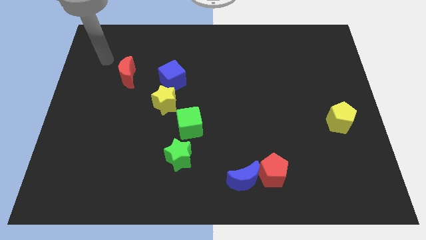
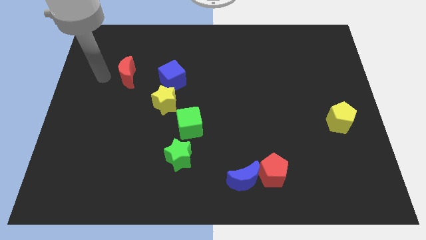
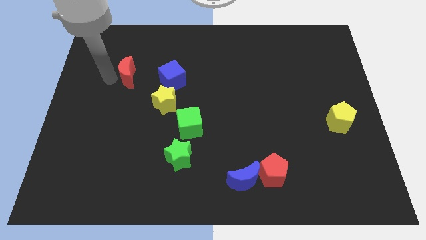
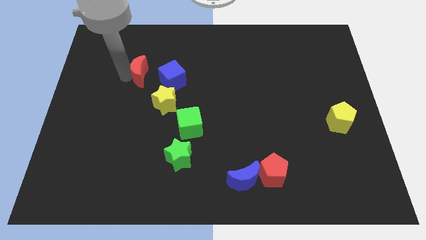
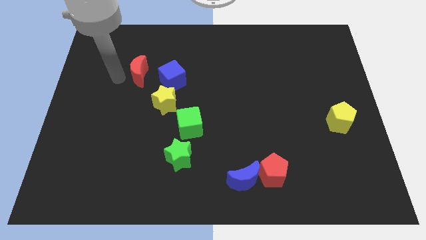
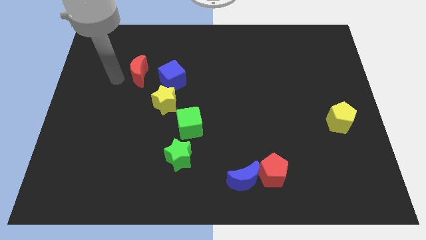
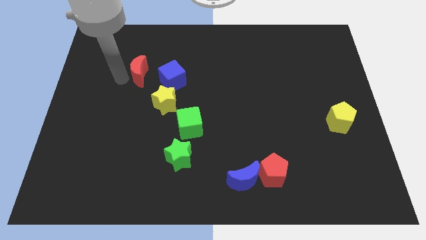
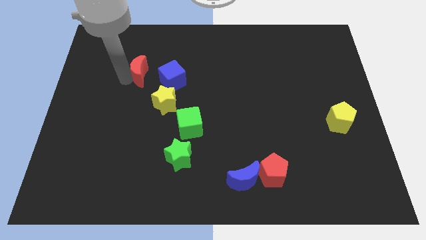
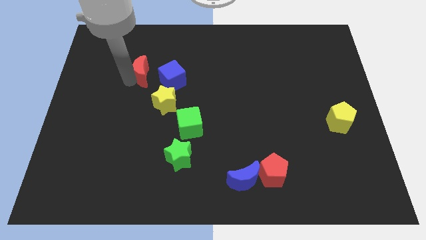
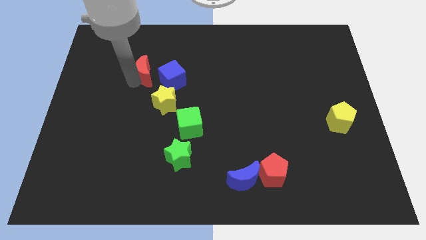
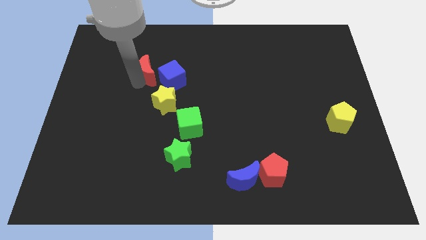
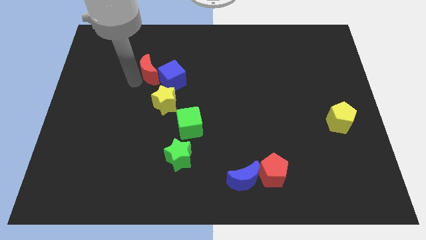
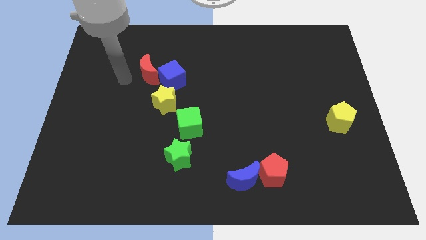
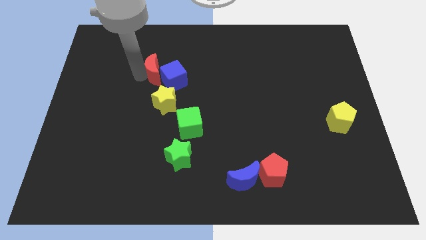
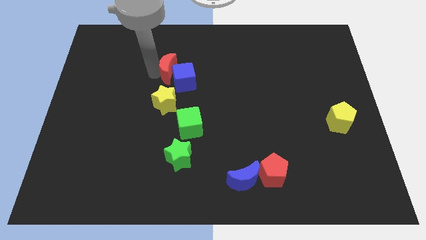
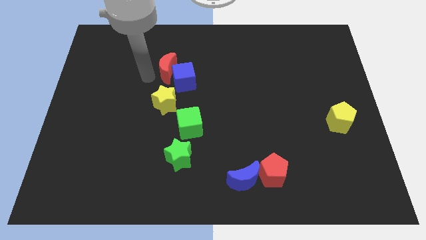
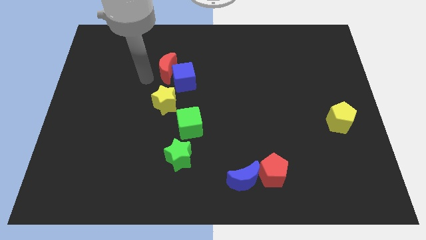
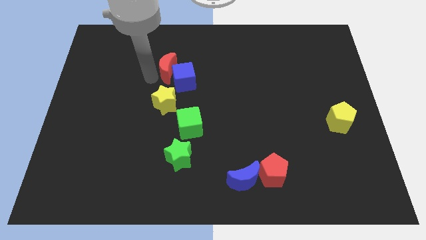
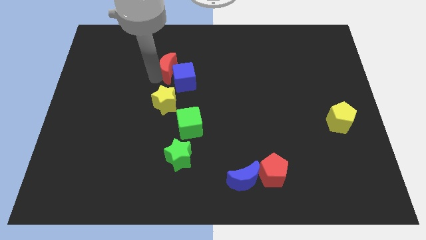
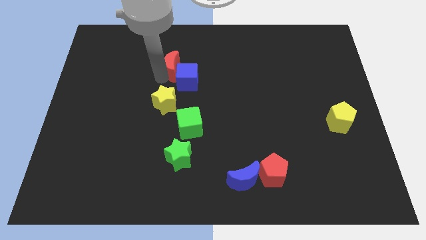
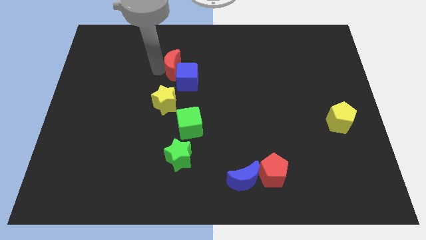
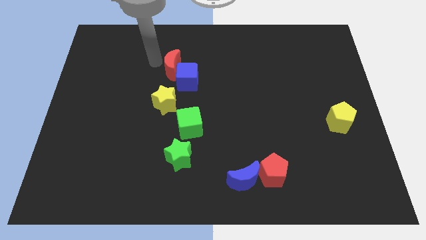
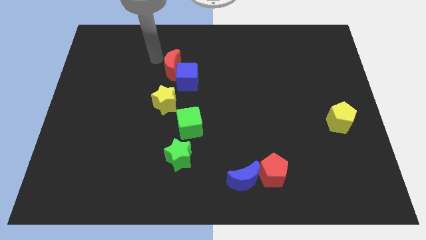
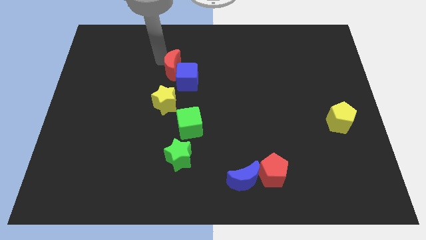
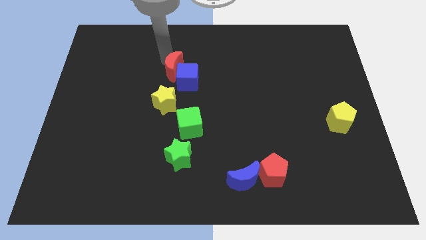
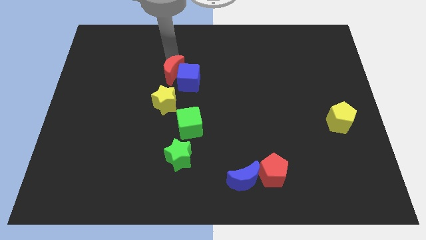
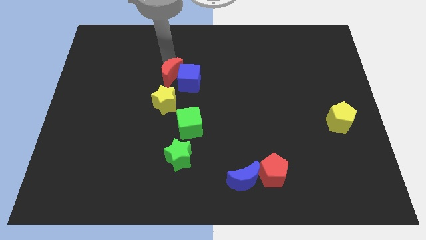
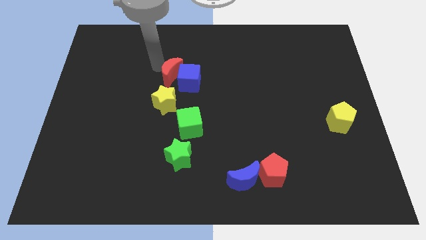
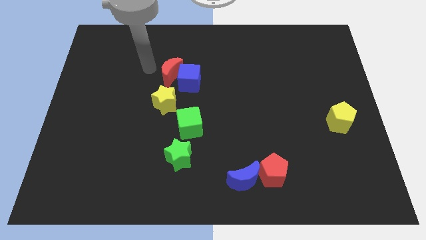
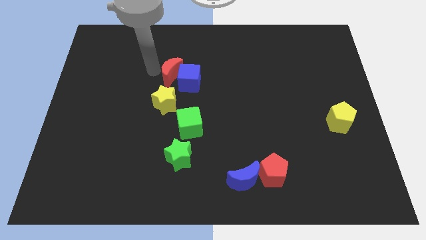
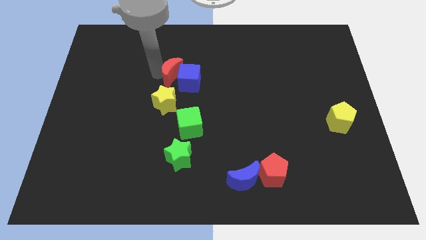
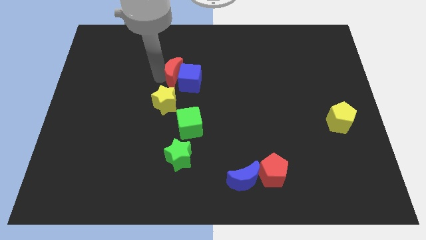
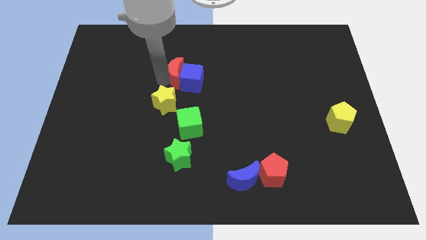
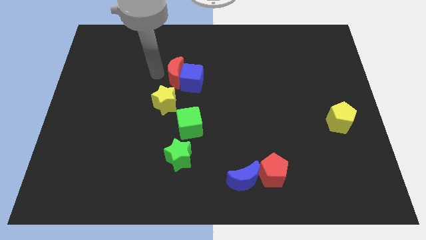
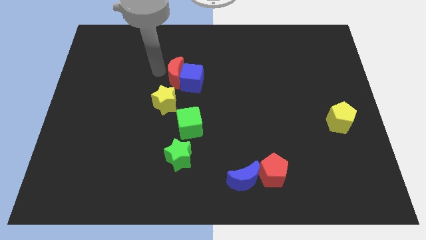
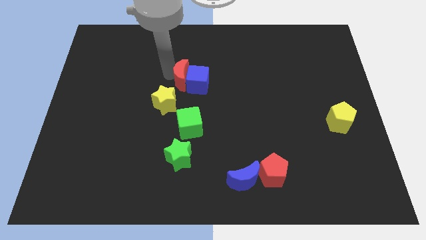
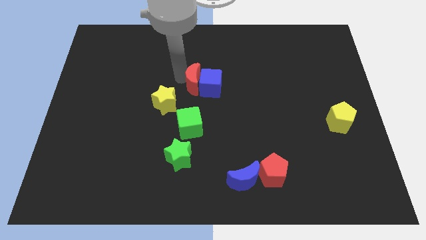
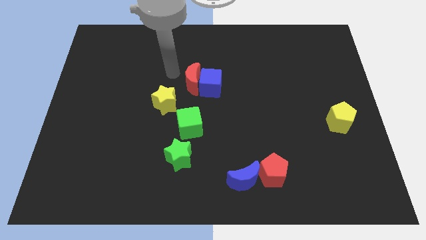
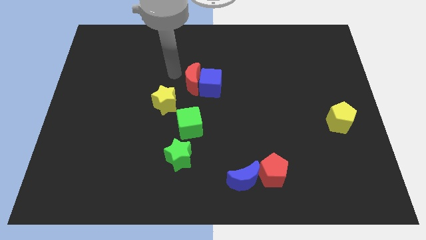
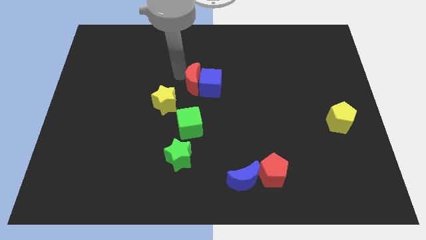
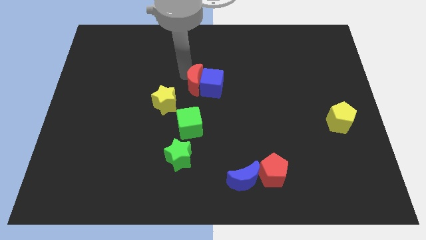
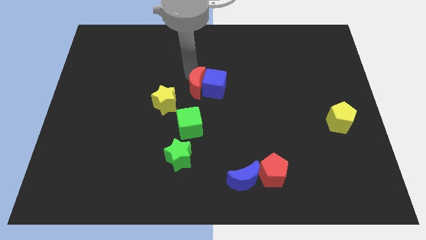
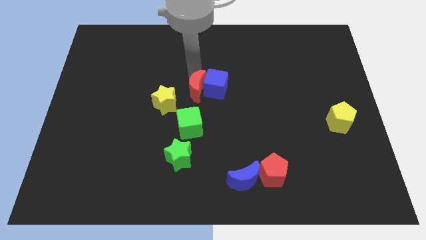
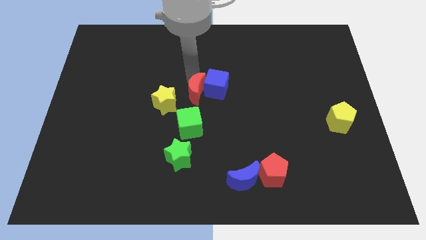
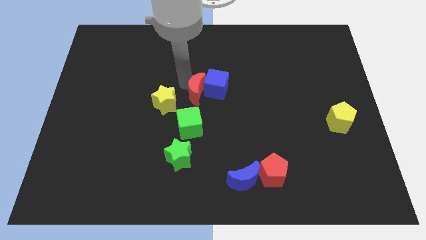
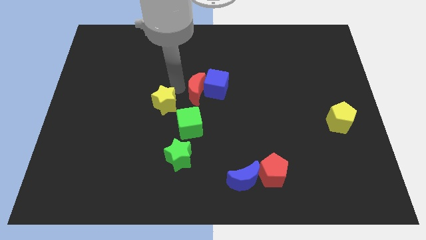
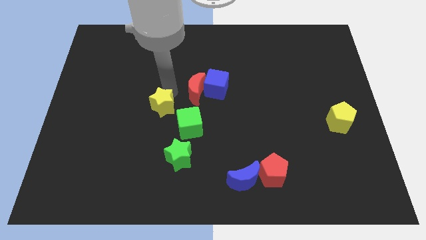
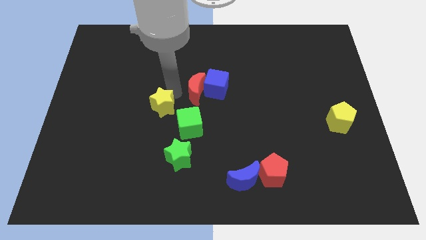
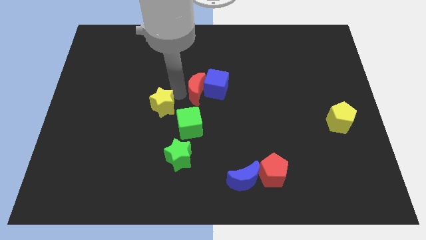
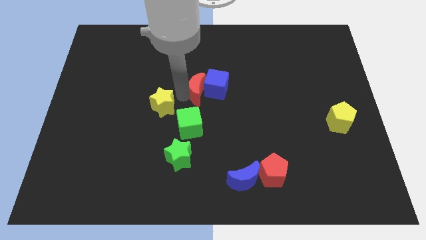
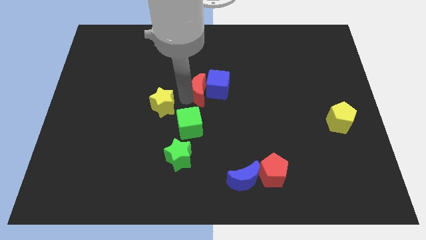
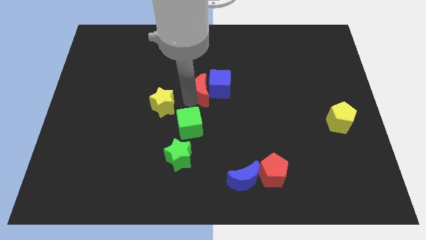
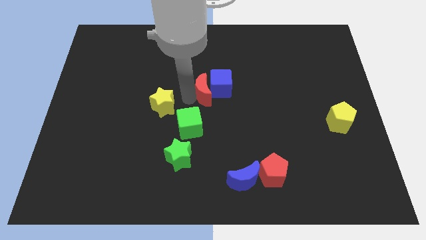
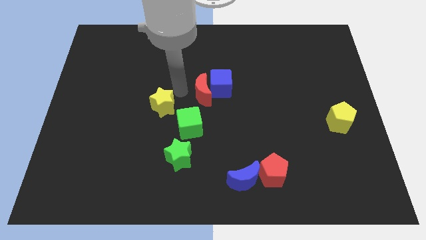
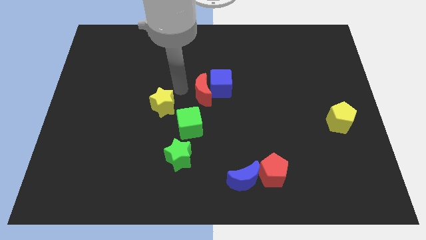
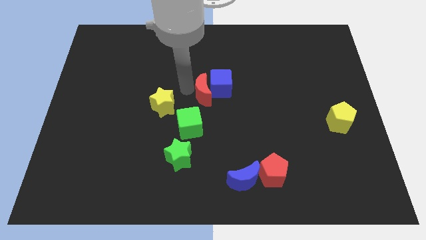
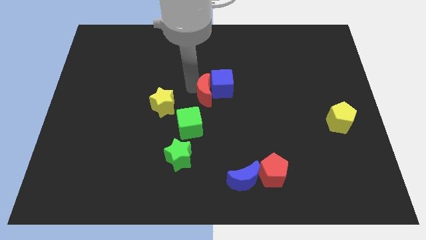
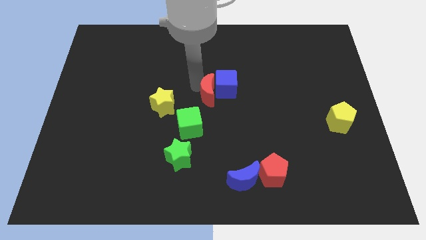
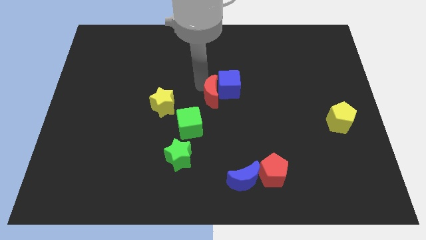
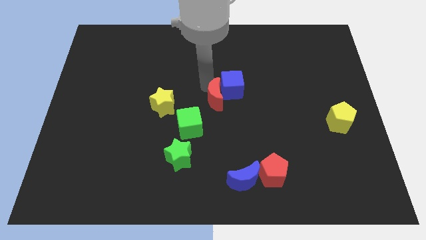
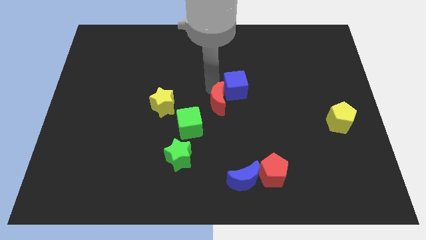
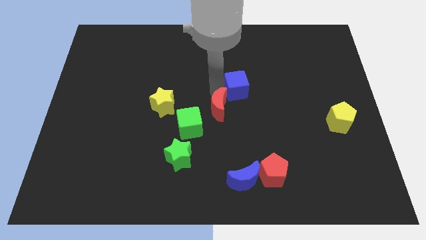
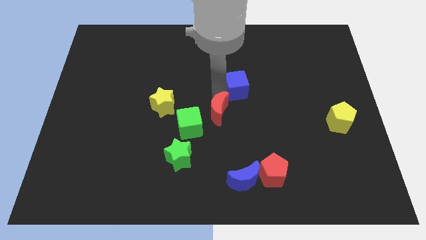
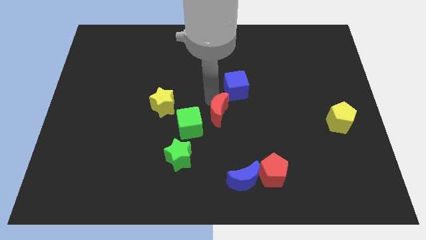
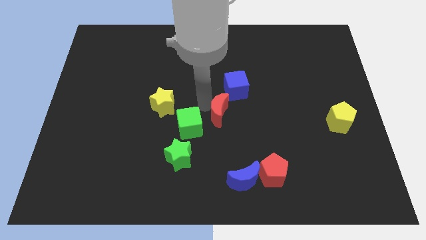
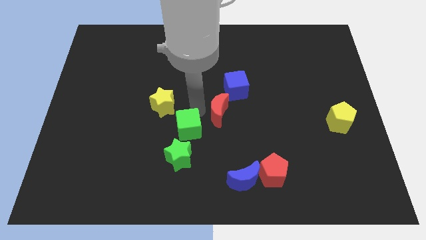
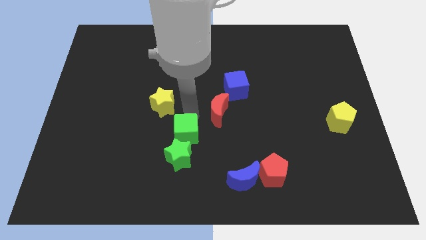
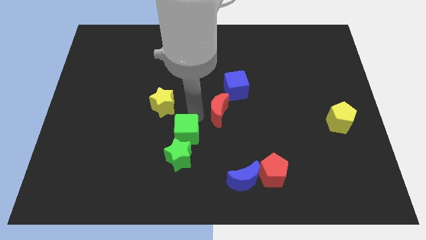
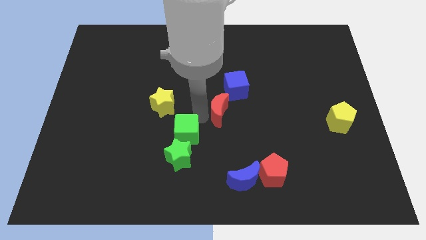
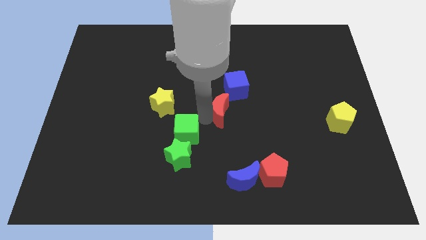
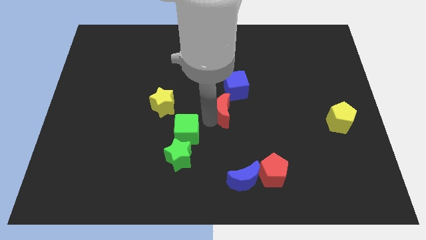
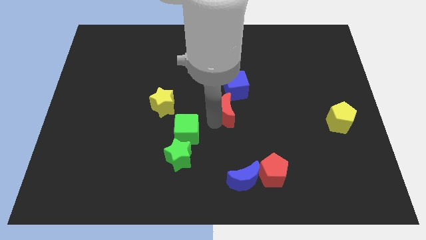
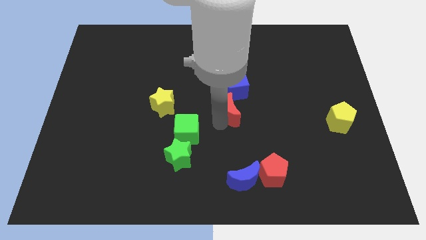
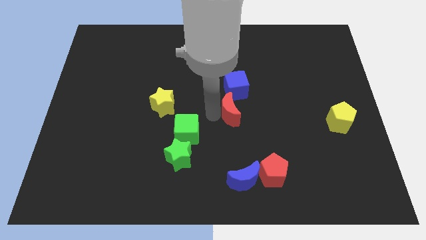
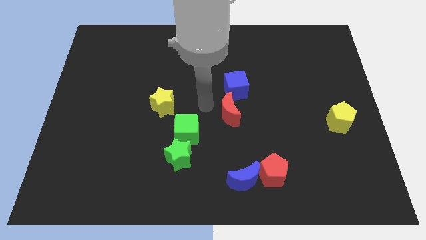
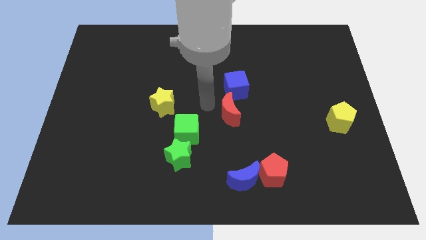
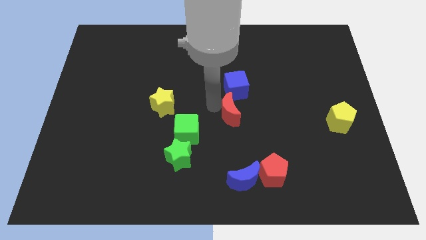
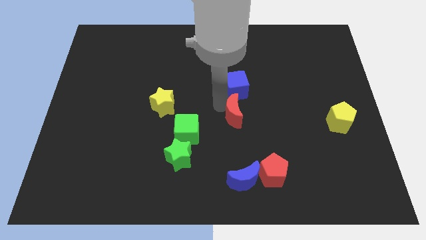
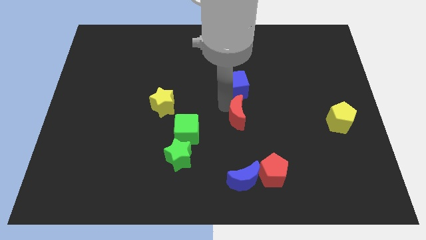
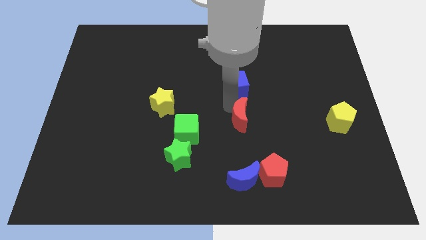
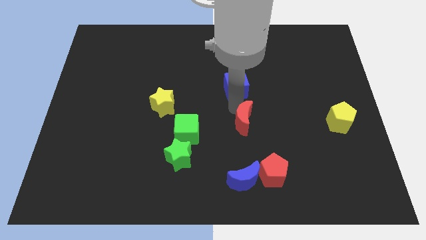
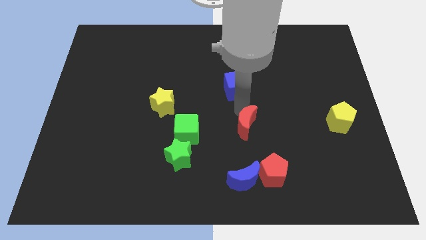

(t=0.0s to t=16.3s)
move the red moon to the top side of the red pentagon
